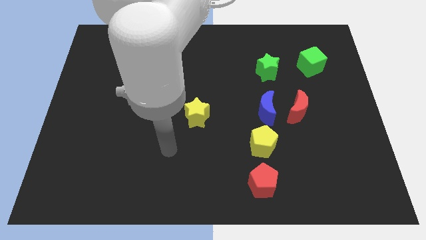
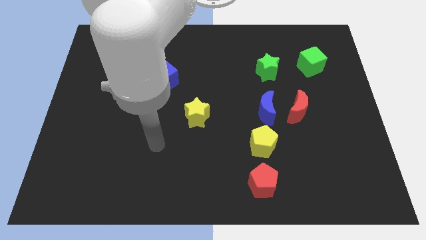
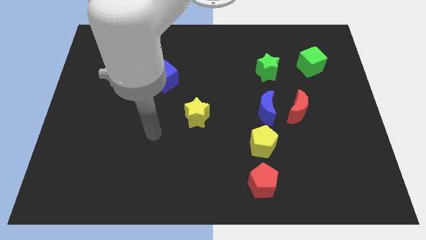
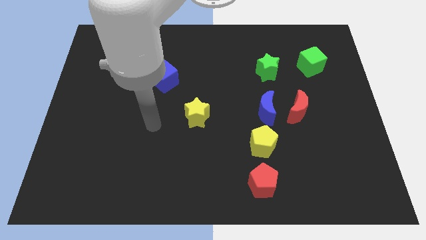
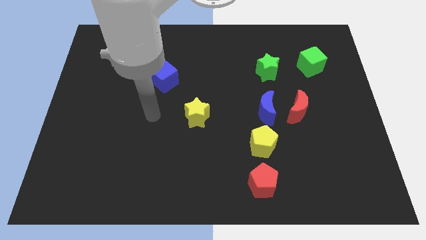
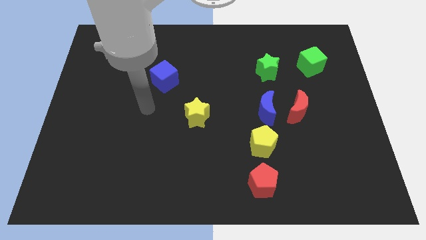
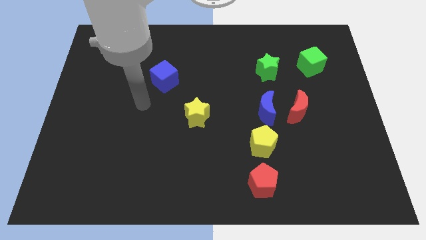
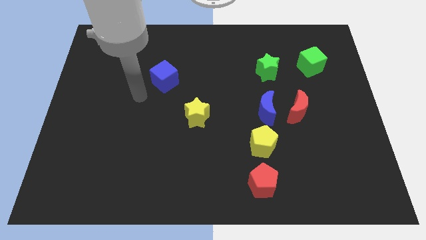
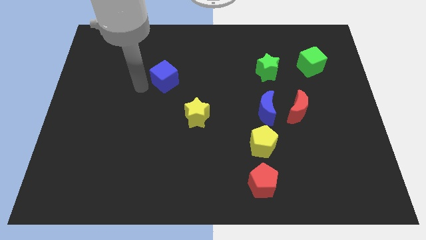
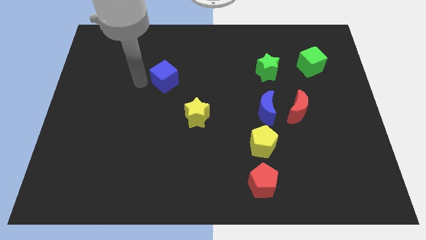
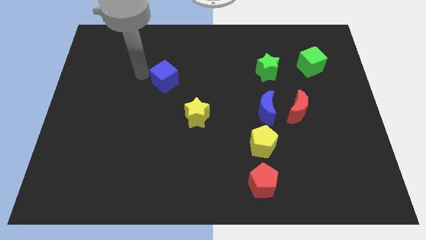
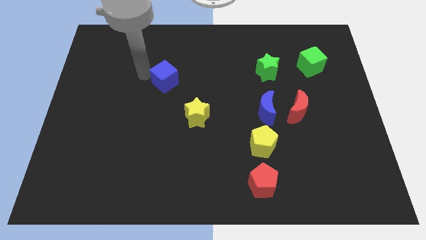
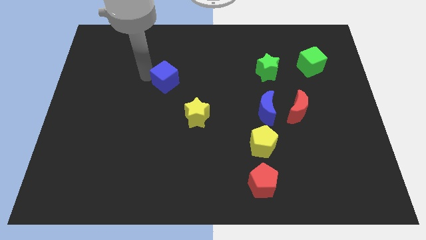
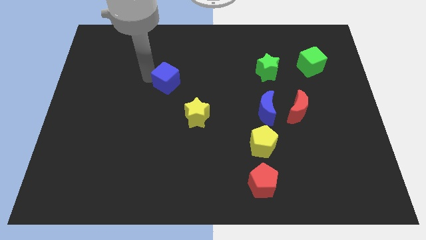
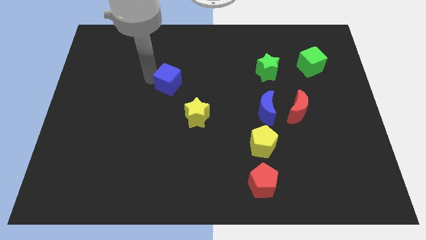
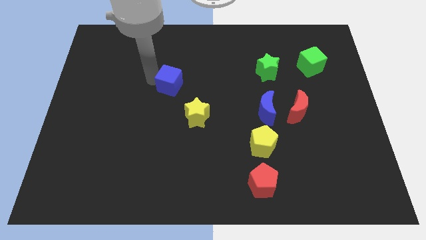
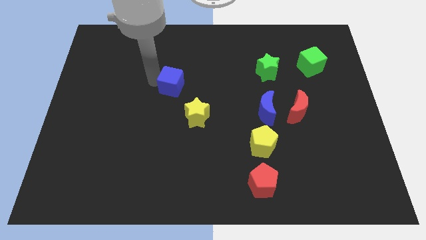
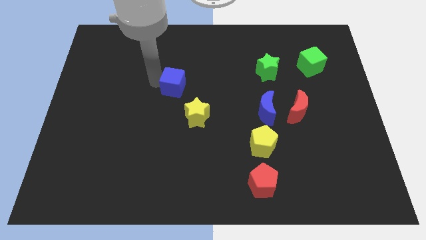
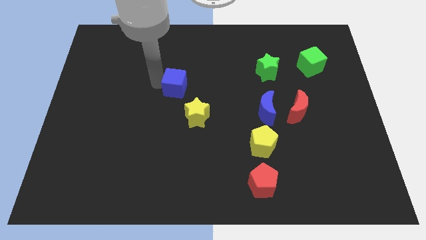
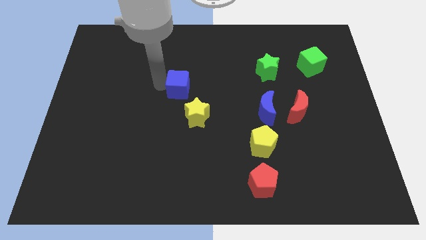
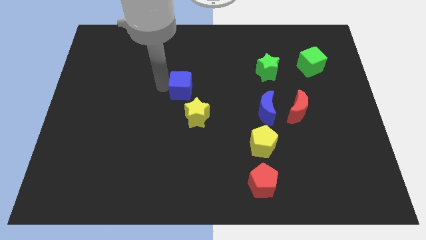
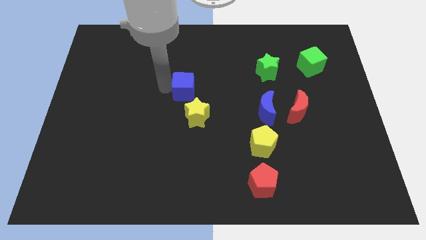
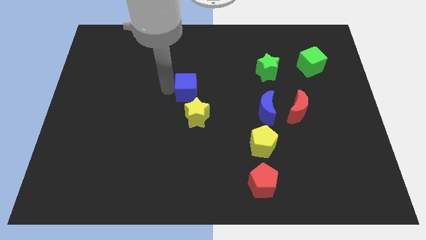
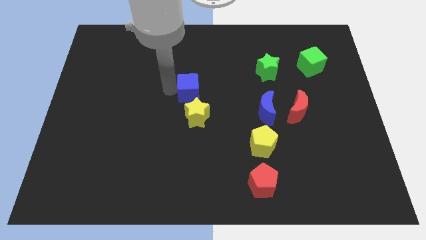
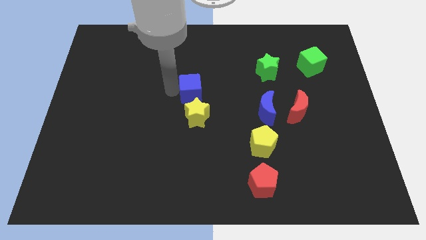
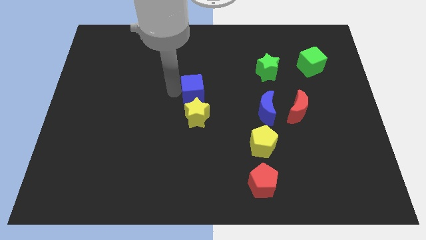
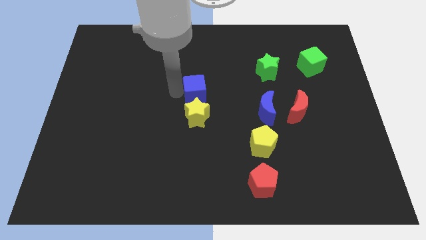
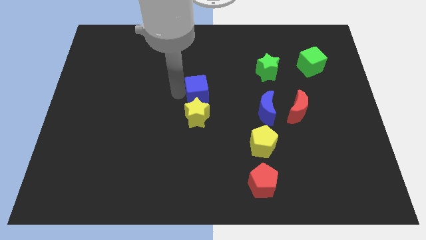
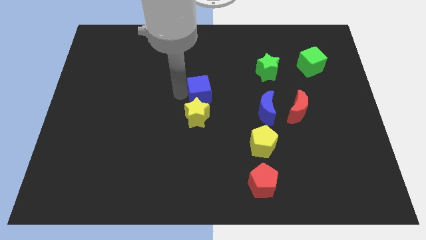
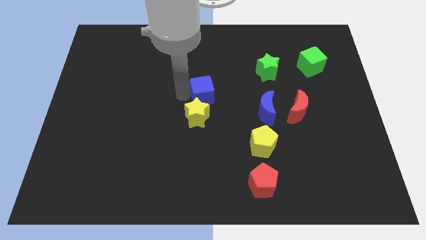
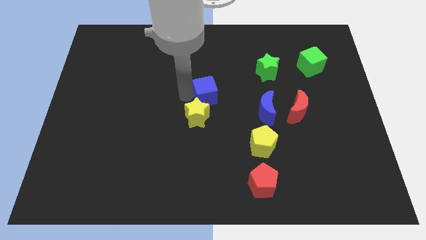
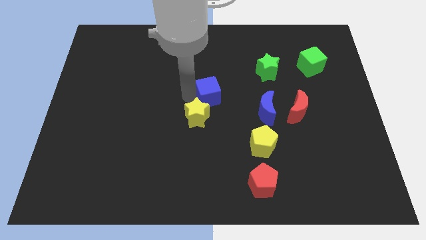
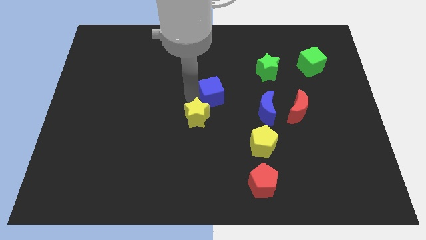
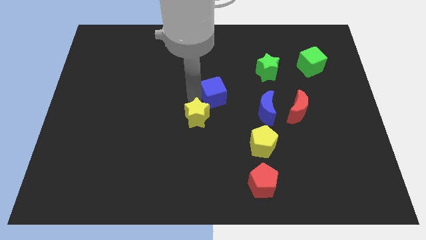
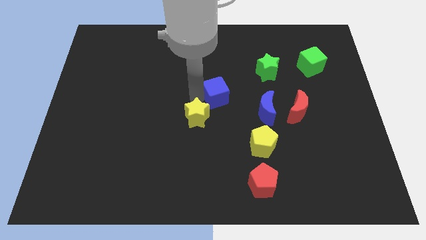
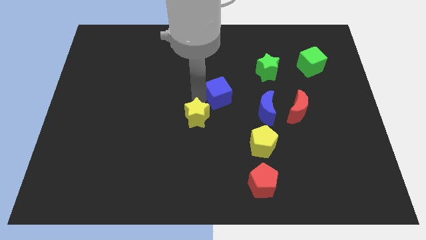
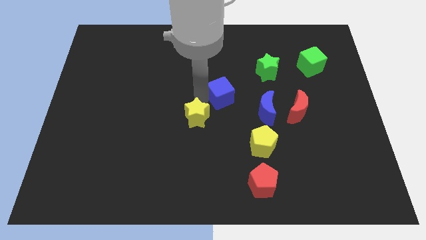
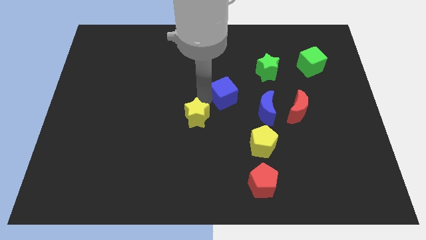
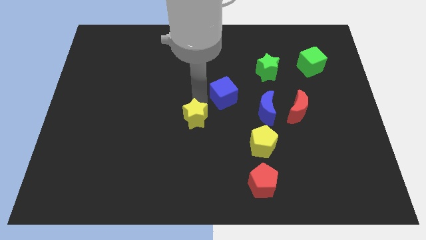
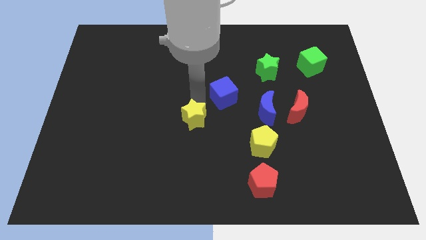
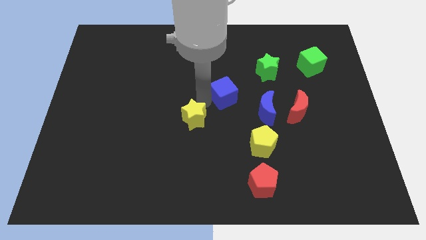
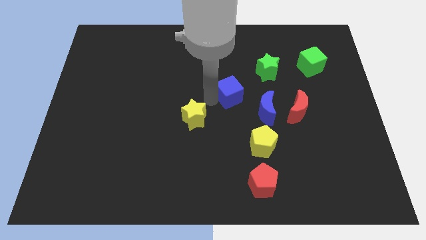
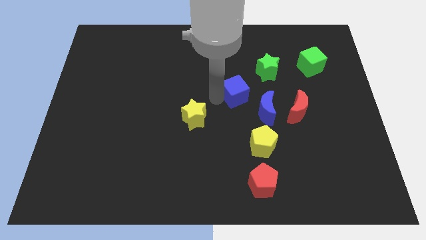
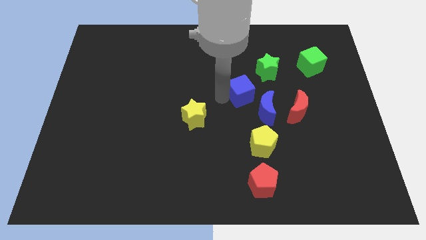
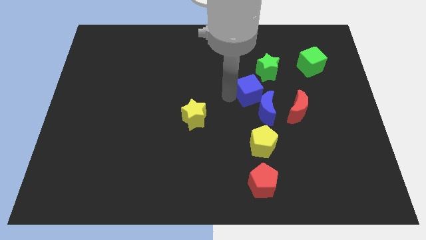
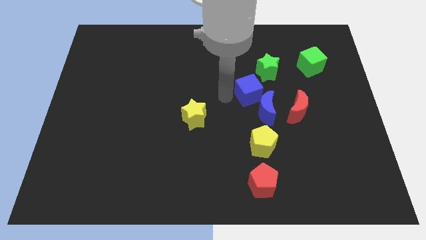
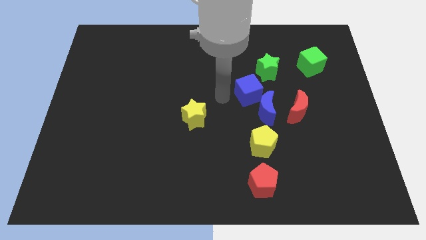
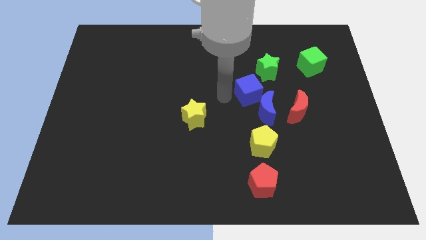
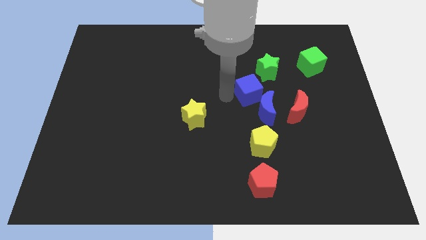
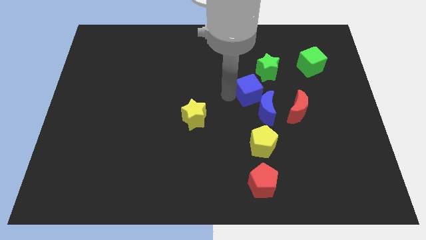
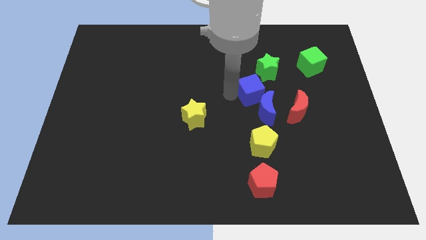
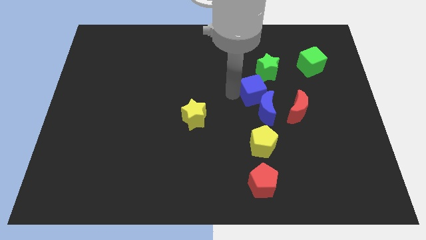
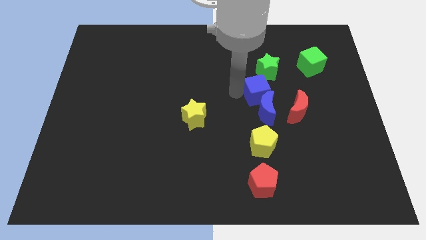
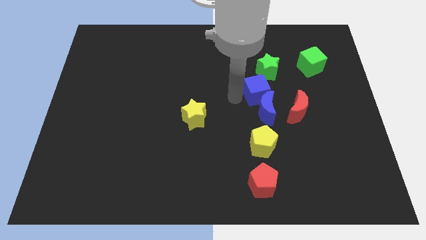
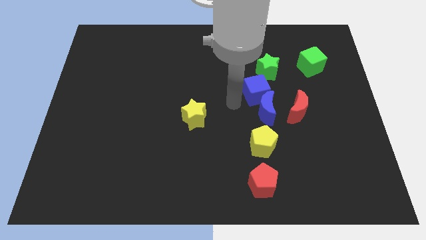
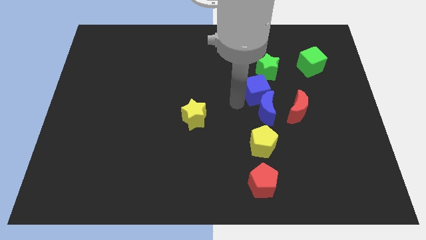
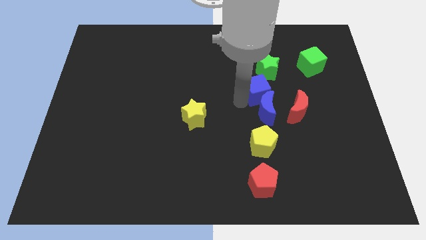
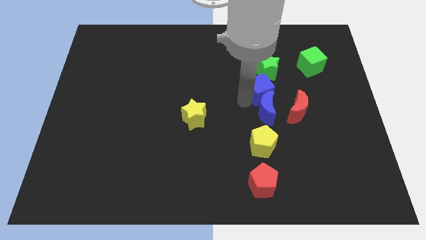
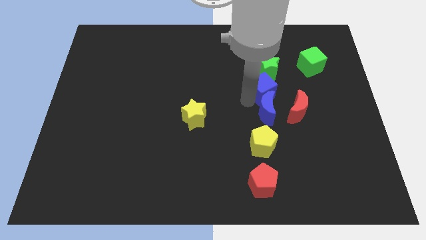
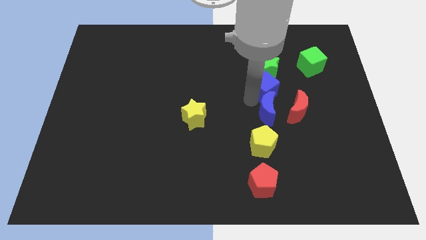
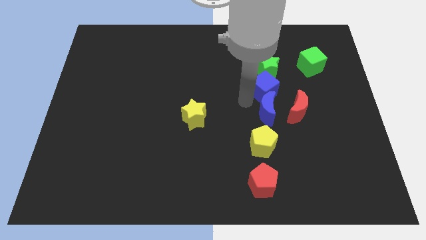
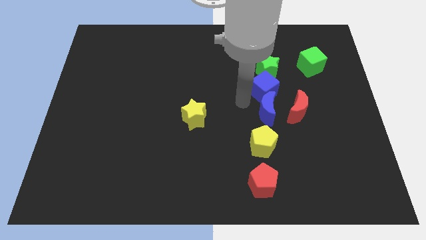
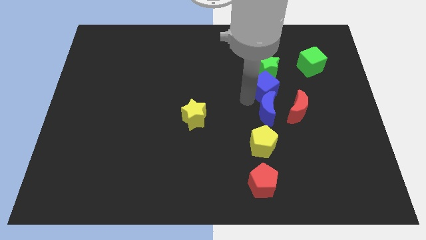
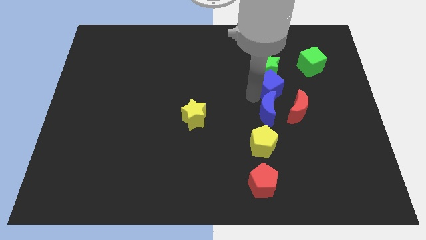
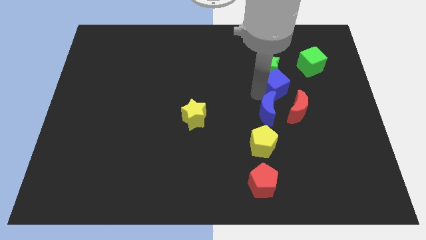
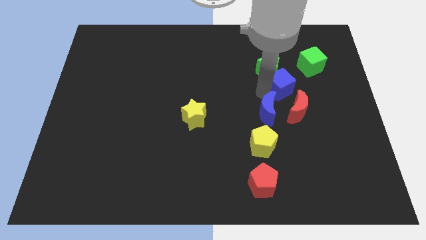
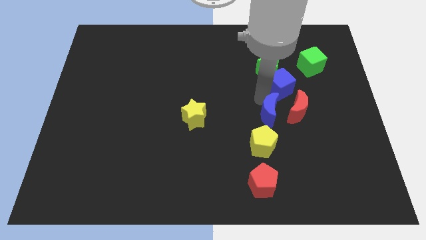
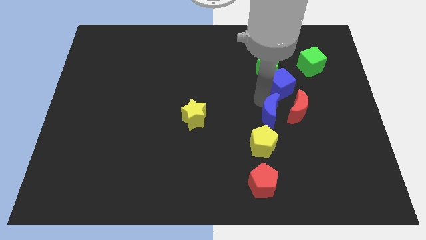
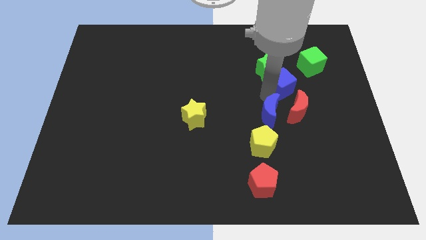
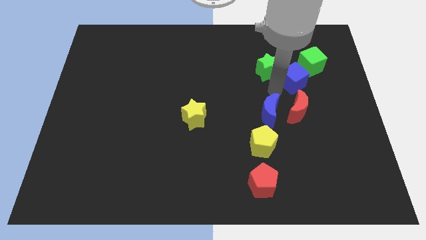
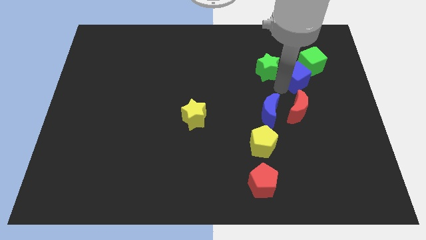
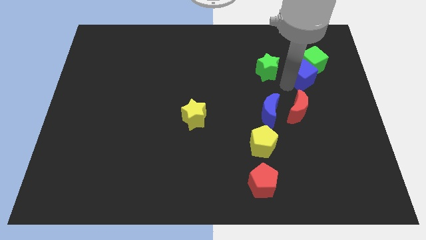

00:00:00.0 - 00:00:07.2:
push the blue cube next to the green cube
